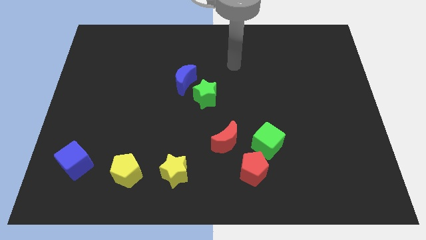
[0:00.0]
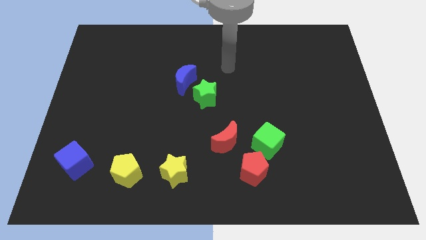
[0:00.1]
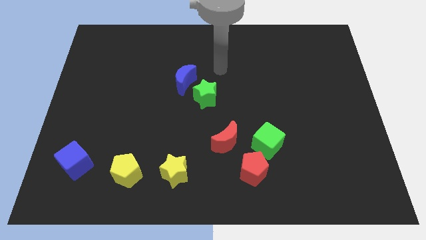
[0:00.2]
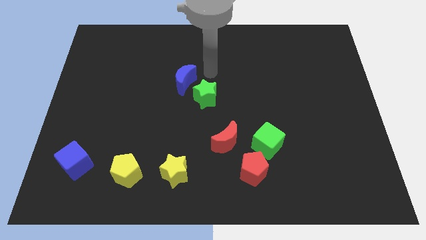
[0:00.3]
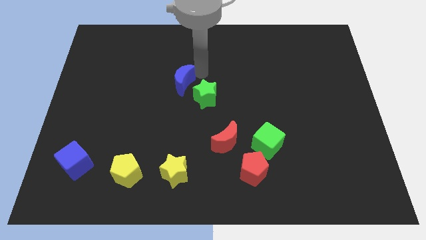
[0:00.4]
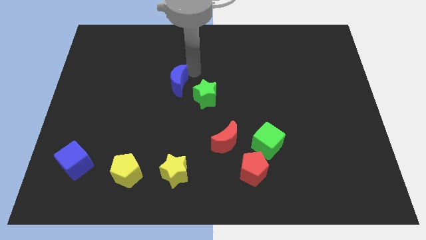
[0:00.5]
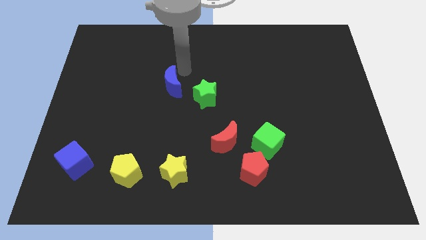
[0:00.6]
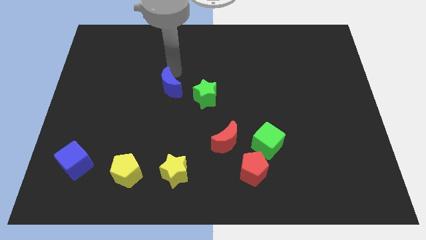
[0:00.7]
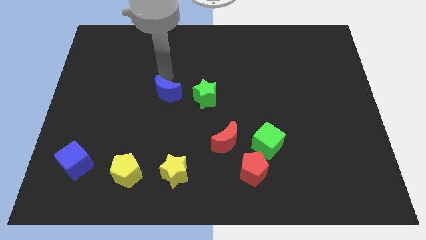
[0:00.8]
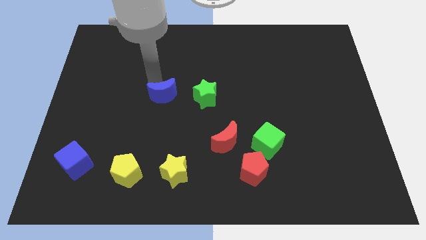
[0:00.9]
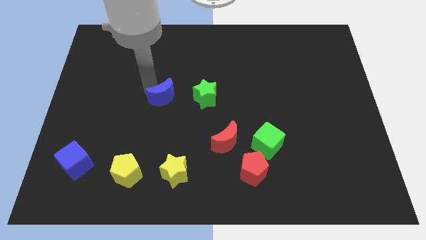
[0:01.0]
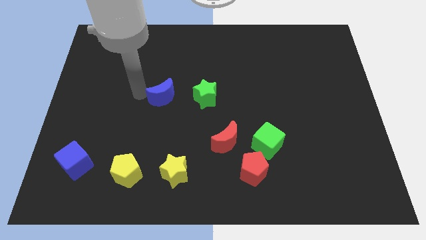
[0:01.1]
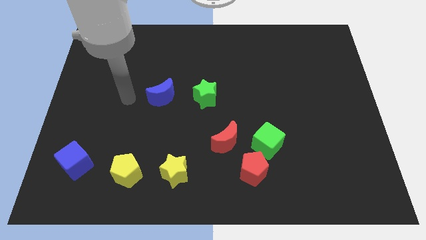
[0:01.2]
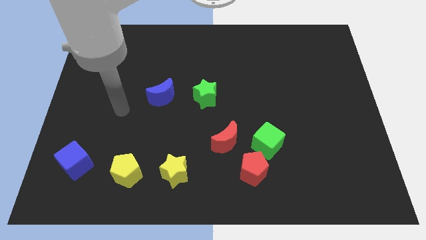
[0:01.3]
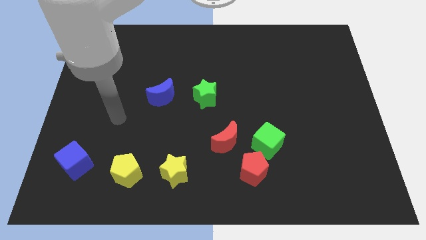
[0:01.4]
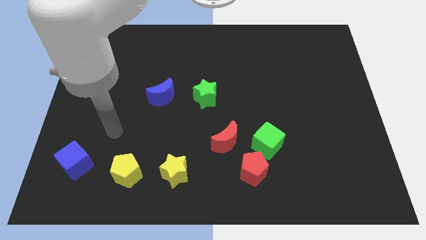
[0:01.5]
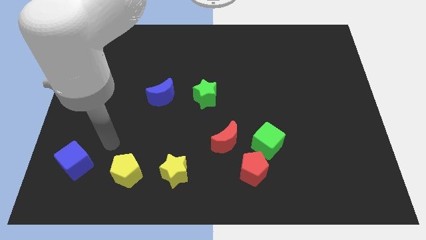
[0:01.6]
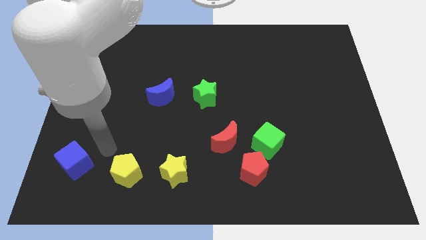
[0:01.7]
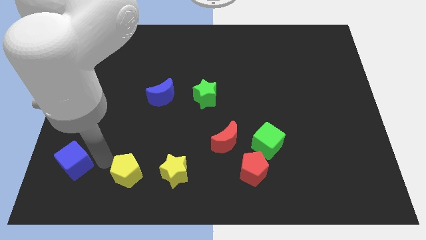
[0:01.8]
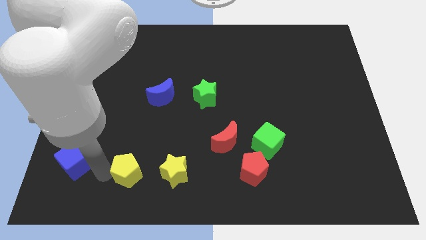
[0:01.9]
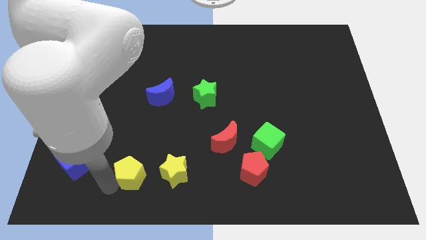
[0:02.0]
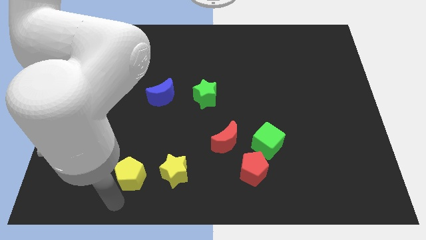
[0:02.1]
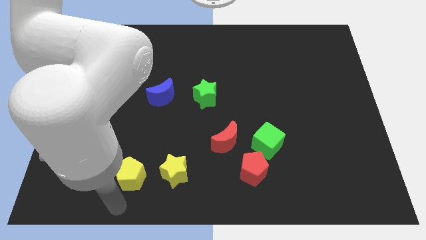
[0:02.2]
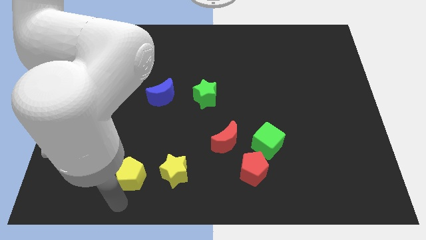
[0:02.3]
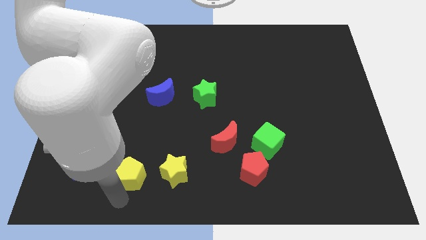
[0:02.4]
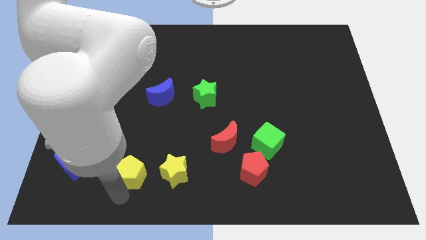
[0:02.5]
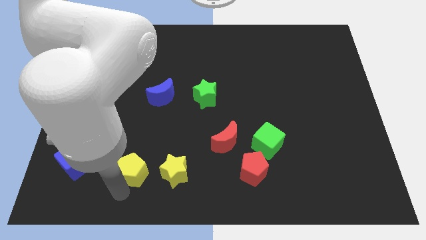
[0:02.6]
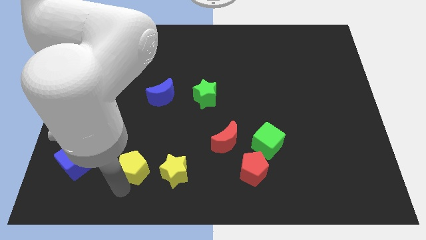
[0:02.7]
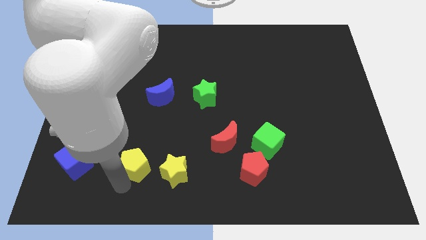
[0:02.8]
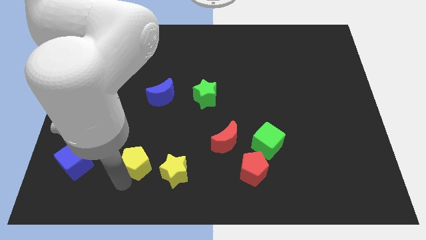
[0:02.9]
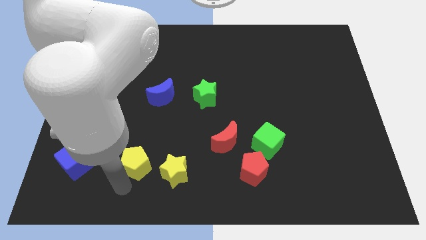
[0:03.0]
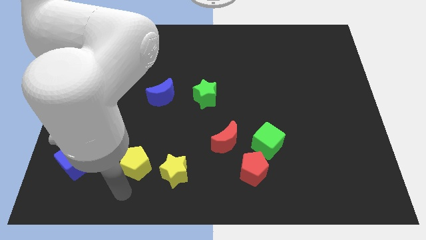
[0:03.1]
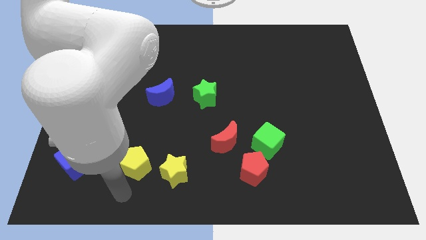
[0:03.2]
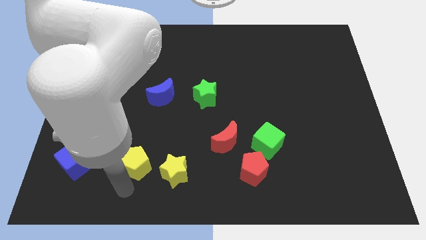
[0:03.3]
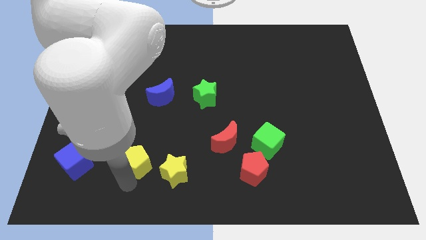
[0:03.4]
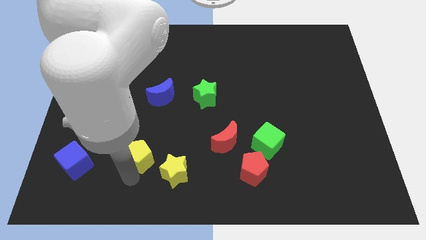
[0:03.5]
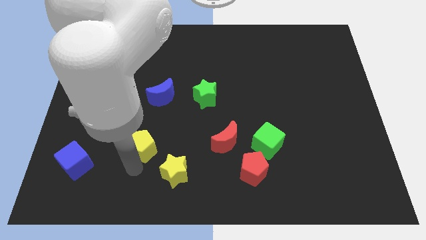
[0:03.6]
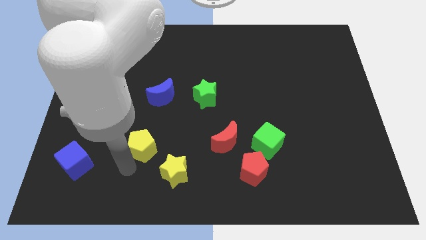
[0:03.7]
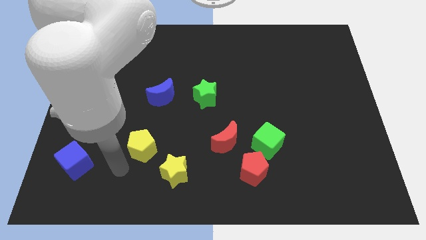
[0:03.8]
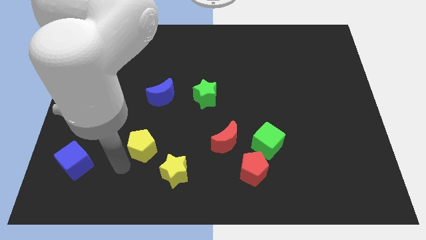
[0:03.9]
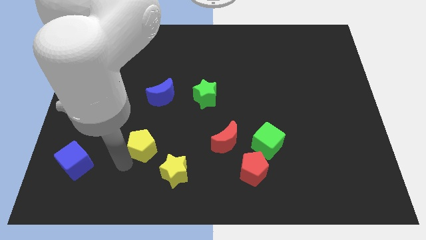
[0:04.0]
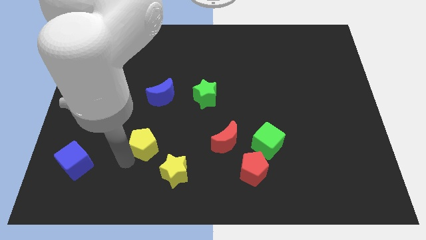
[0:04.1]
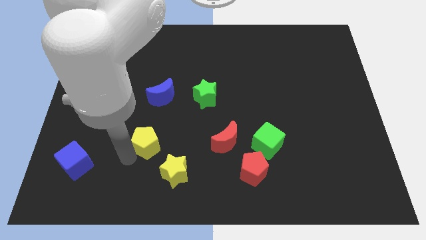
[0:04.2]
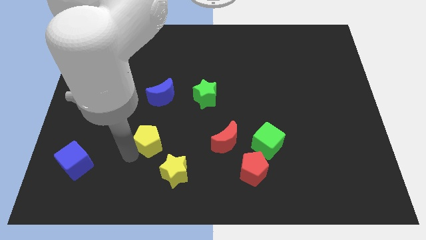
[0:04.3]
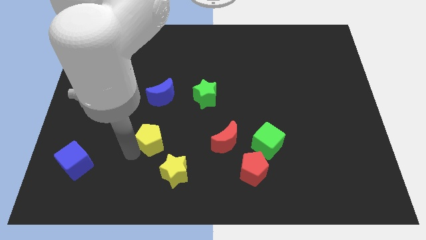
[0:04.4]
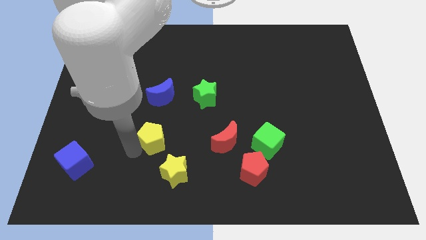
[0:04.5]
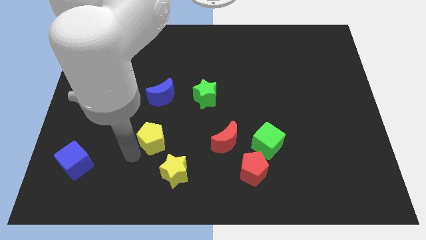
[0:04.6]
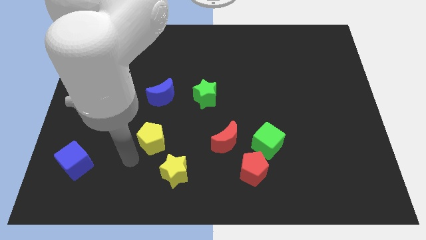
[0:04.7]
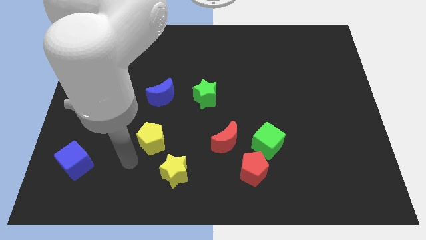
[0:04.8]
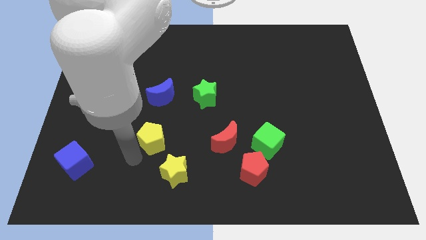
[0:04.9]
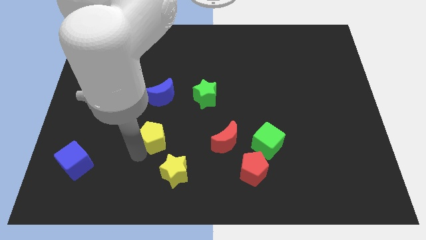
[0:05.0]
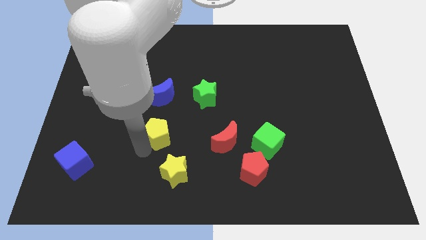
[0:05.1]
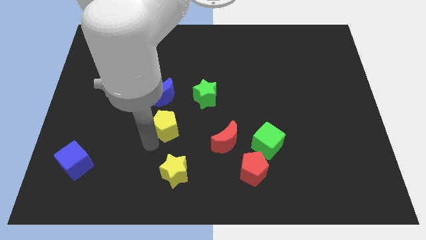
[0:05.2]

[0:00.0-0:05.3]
move the yellow pentagon to the bottom left of the green star

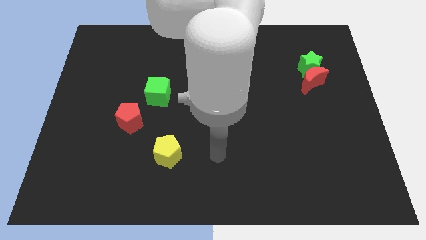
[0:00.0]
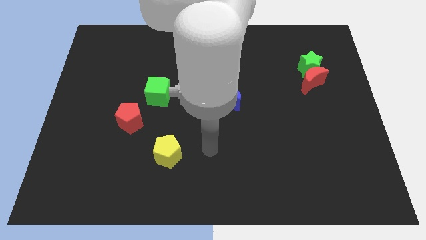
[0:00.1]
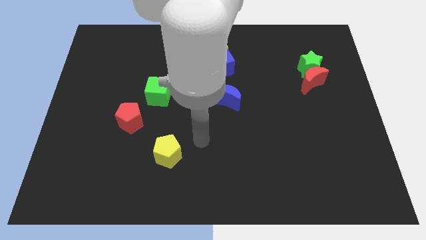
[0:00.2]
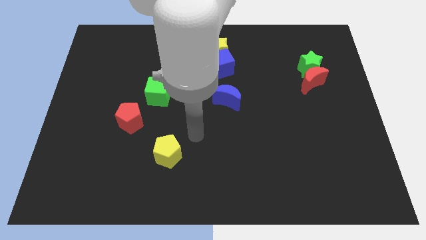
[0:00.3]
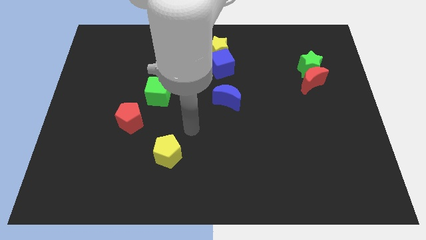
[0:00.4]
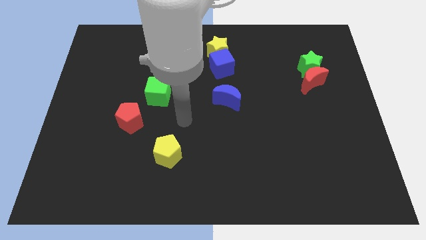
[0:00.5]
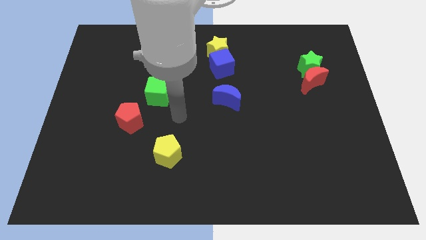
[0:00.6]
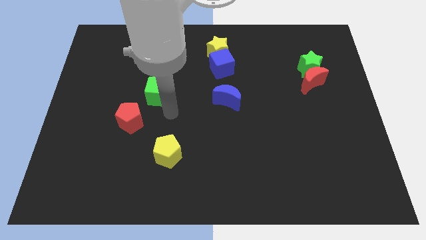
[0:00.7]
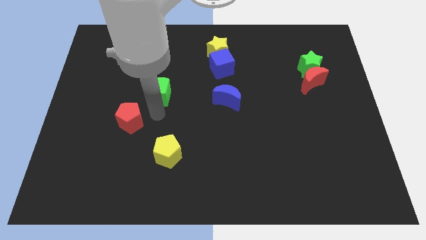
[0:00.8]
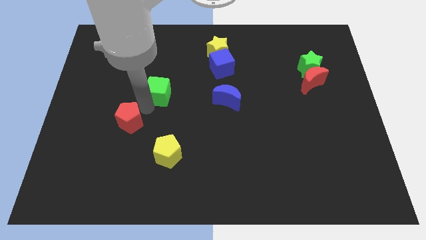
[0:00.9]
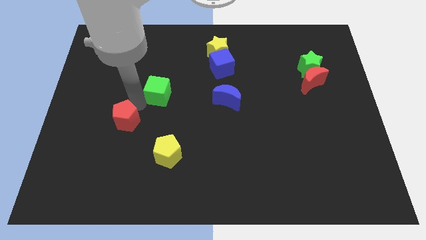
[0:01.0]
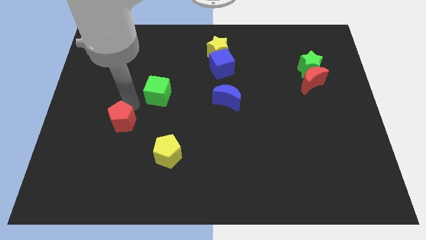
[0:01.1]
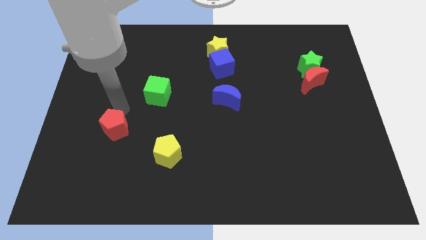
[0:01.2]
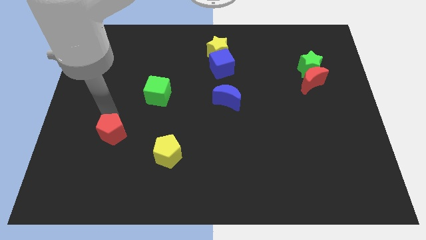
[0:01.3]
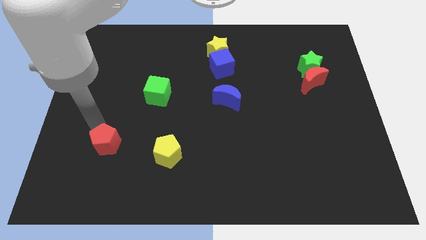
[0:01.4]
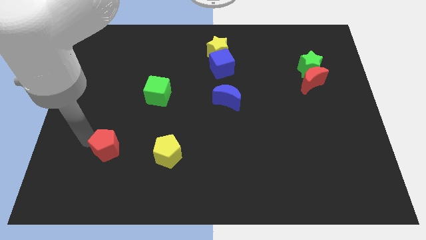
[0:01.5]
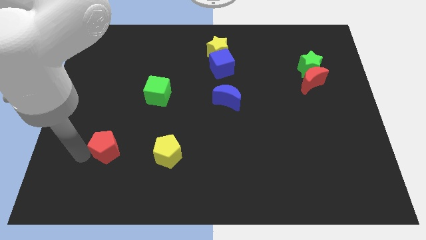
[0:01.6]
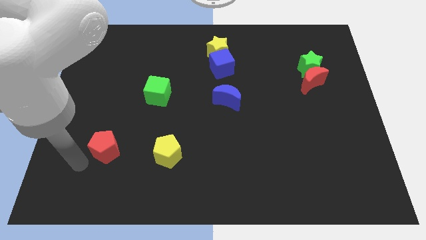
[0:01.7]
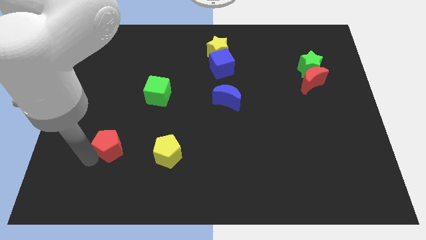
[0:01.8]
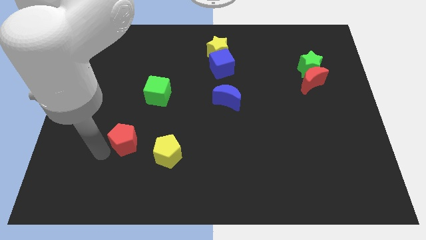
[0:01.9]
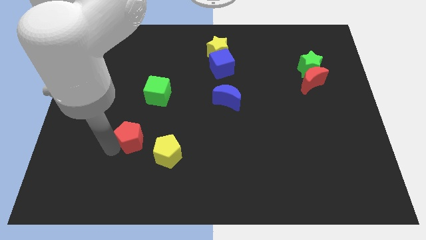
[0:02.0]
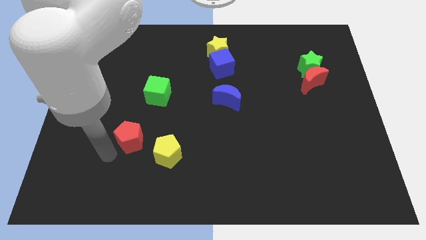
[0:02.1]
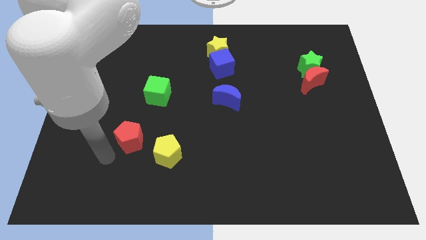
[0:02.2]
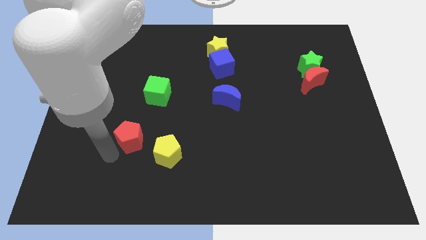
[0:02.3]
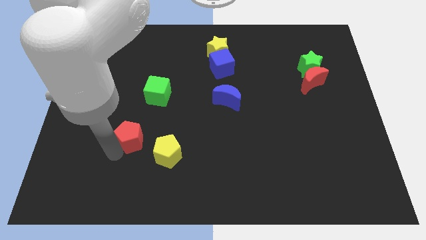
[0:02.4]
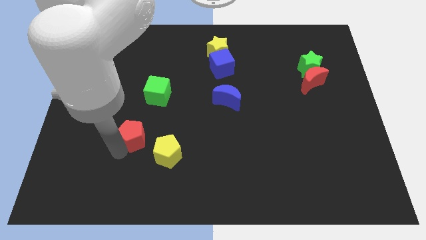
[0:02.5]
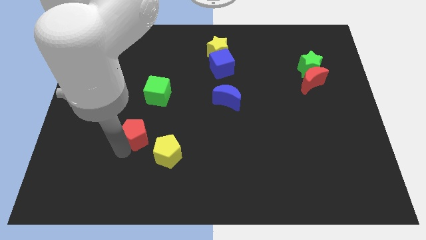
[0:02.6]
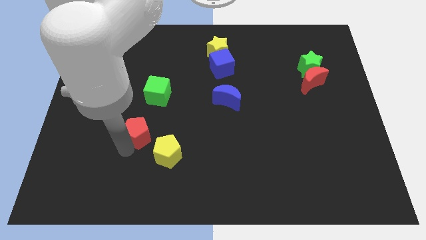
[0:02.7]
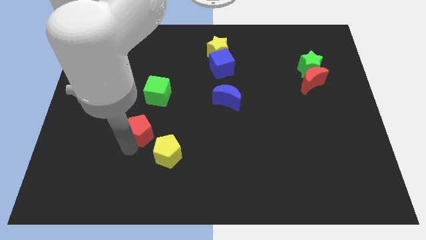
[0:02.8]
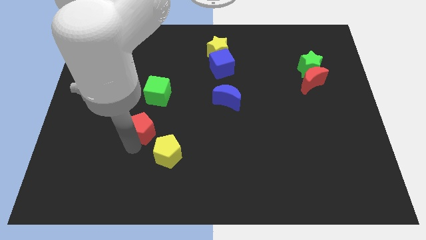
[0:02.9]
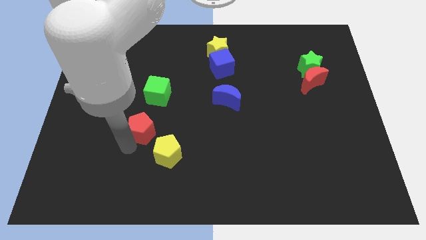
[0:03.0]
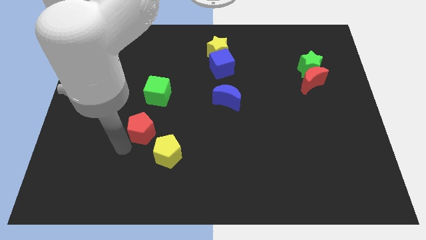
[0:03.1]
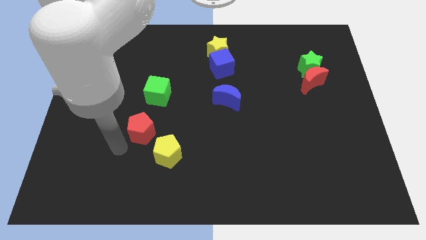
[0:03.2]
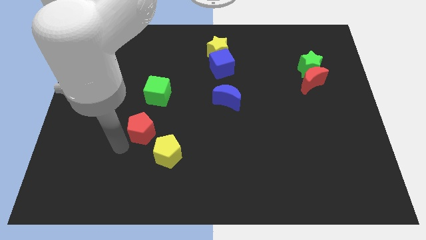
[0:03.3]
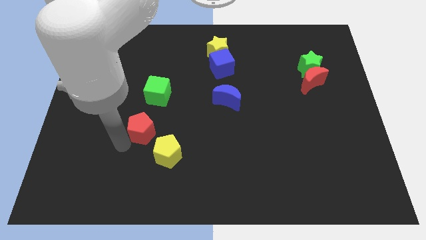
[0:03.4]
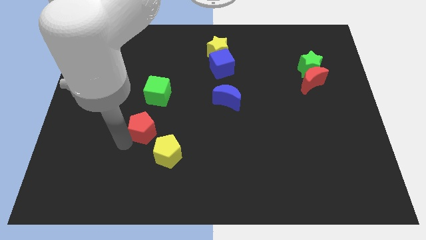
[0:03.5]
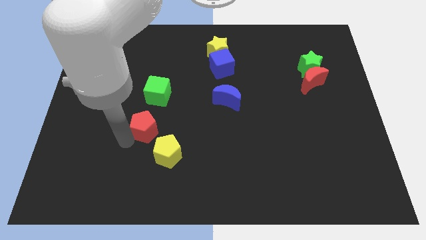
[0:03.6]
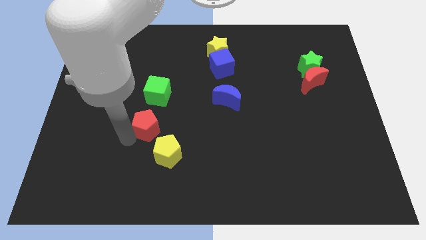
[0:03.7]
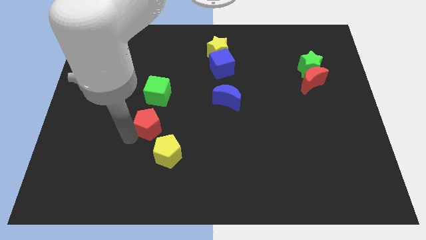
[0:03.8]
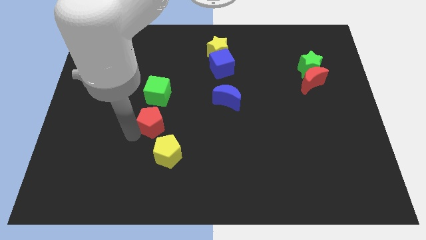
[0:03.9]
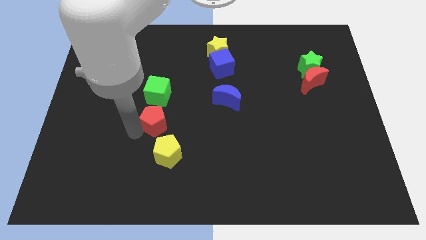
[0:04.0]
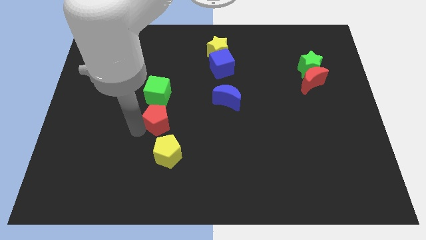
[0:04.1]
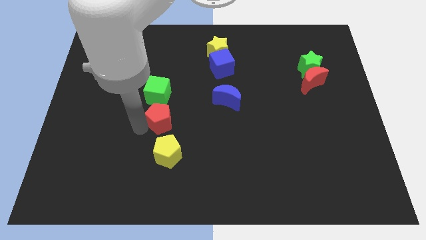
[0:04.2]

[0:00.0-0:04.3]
put the red pentagon to the bottom right of the green cube
